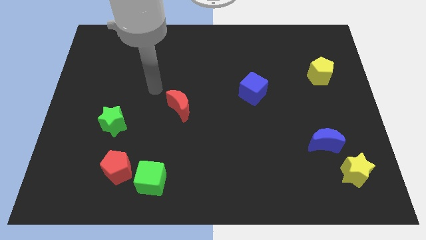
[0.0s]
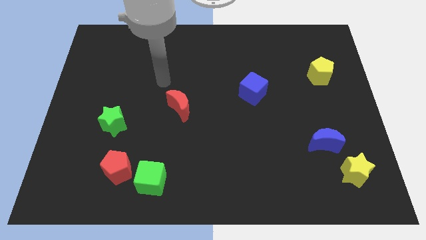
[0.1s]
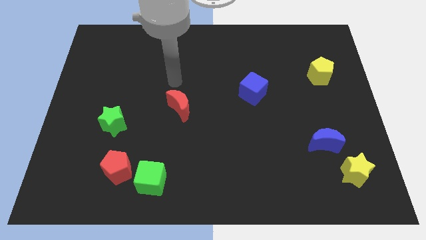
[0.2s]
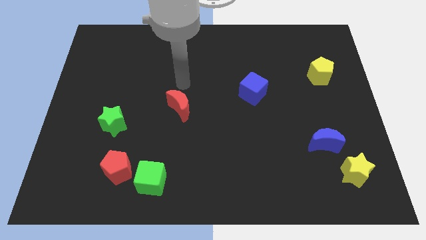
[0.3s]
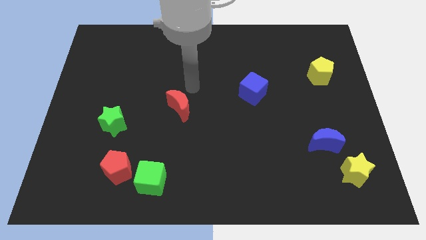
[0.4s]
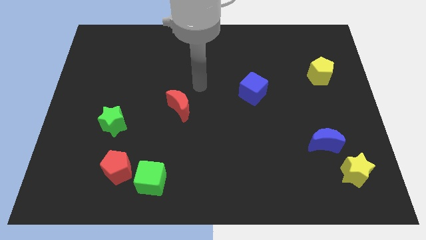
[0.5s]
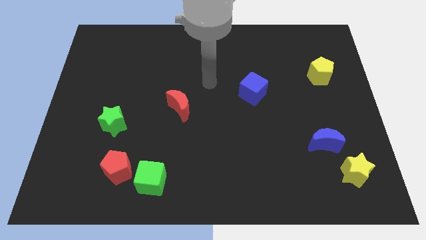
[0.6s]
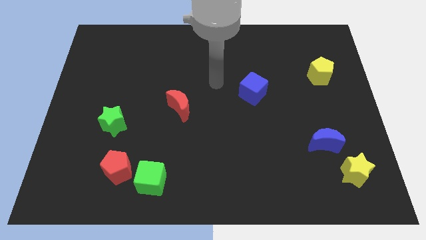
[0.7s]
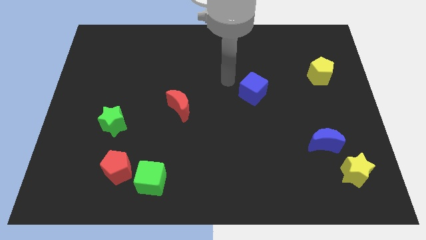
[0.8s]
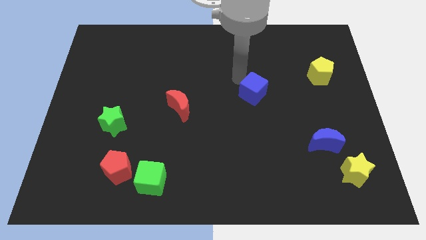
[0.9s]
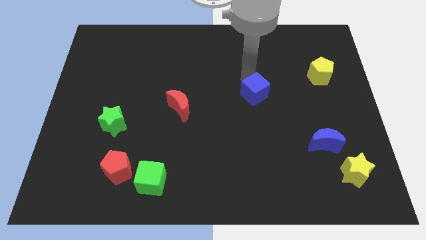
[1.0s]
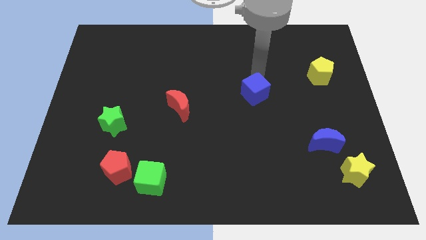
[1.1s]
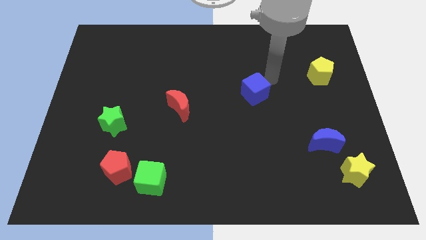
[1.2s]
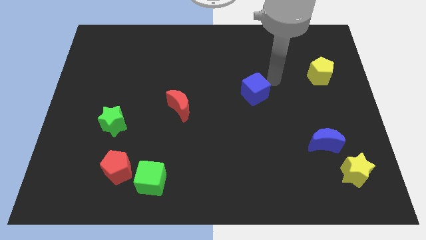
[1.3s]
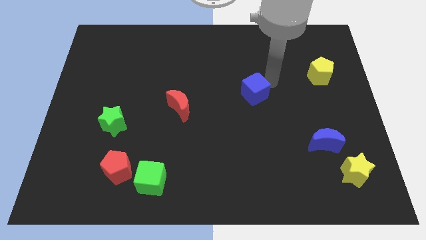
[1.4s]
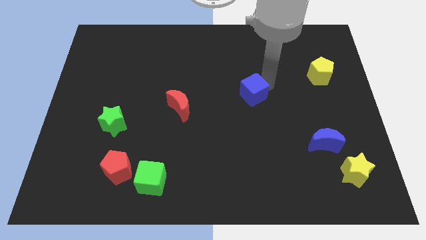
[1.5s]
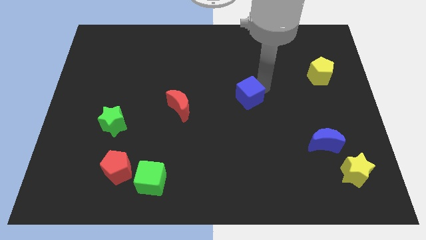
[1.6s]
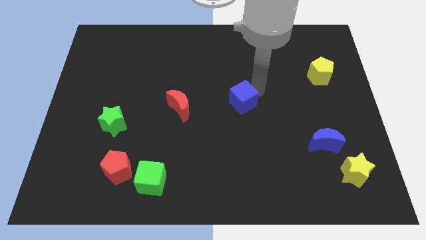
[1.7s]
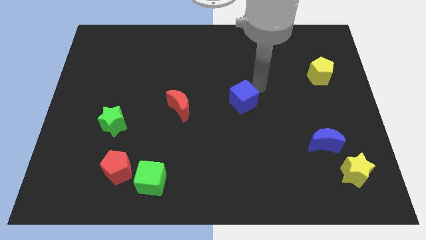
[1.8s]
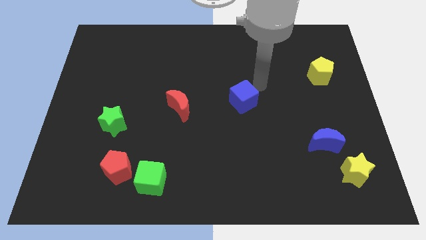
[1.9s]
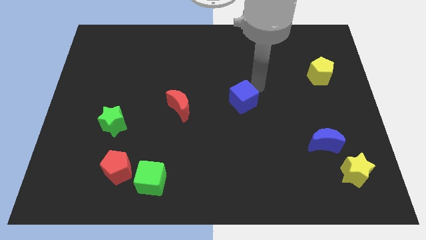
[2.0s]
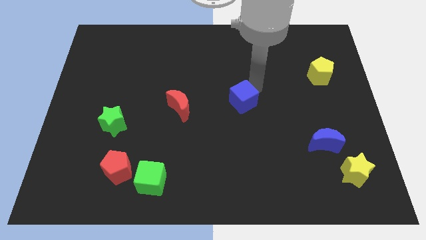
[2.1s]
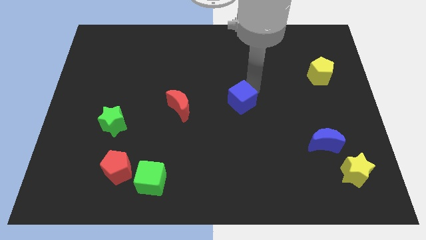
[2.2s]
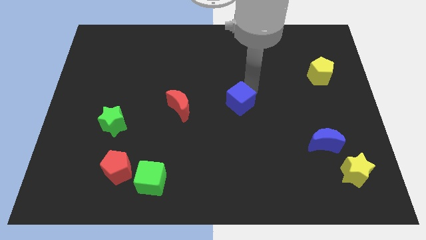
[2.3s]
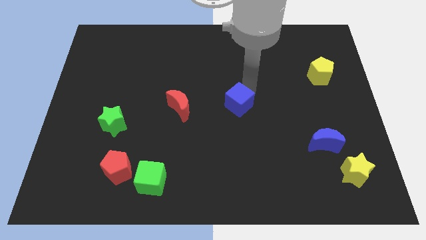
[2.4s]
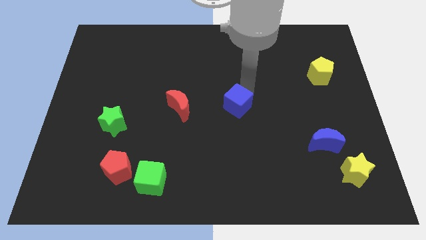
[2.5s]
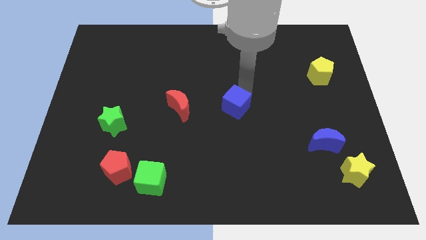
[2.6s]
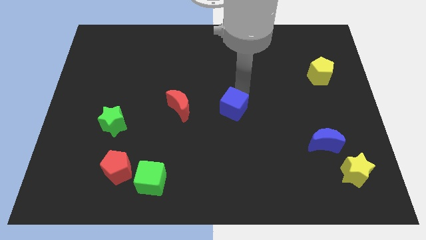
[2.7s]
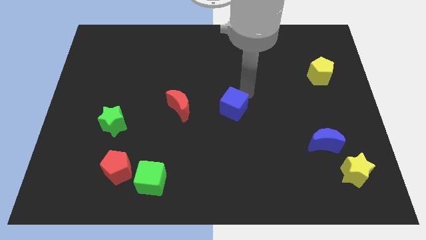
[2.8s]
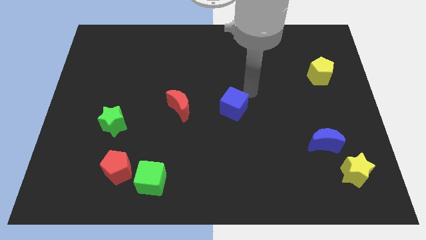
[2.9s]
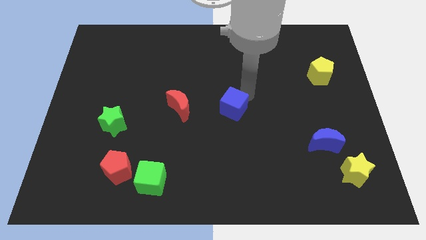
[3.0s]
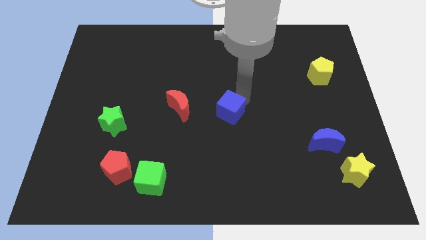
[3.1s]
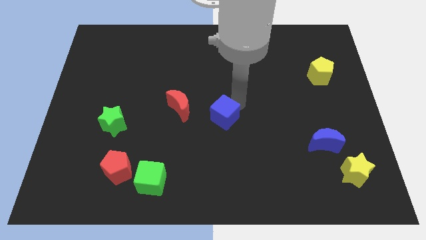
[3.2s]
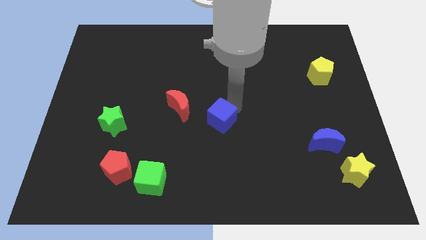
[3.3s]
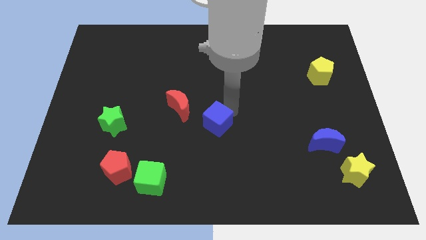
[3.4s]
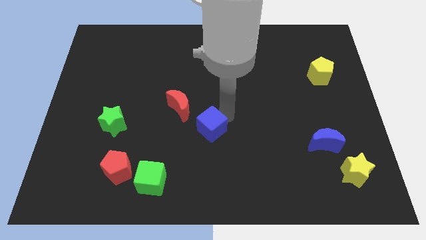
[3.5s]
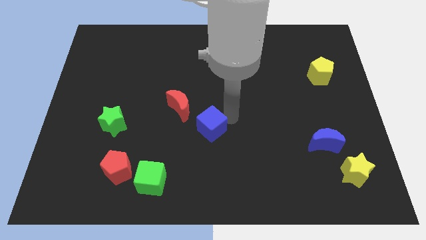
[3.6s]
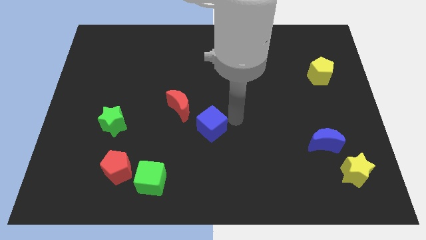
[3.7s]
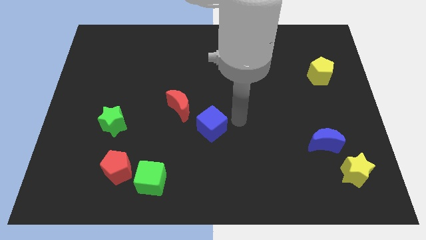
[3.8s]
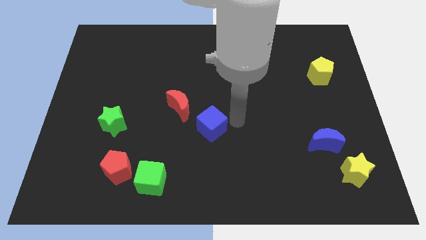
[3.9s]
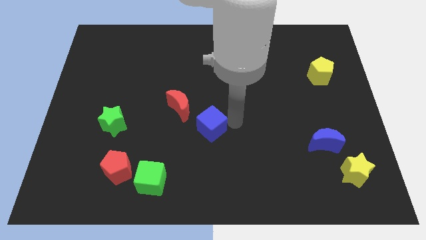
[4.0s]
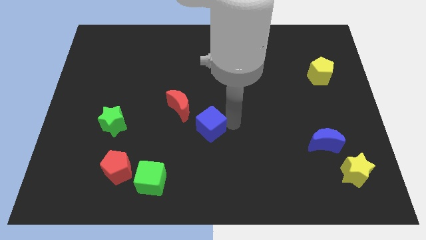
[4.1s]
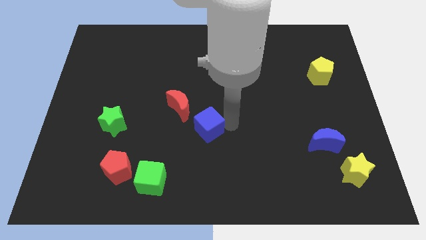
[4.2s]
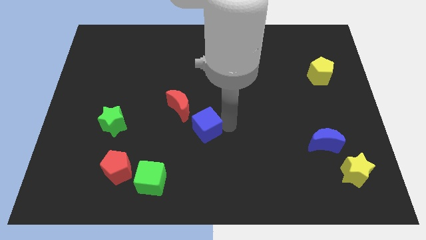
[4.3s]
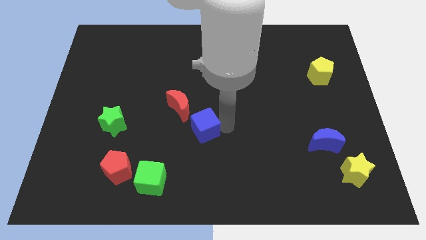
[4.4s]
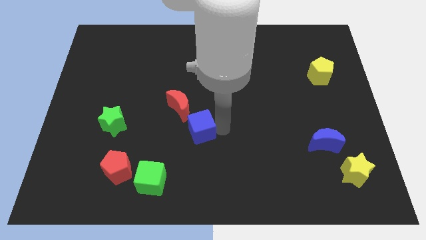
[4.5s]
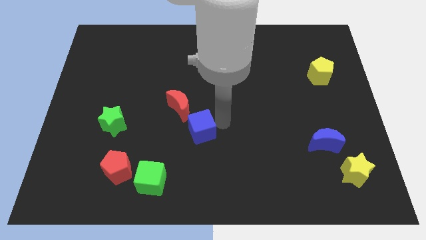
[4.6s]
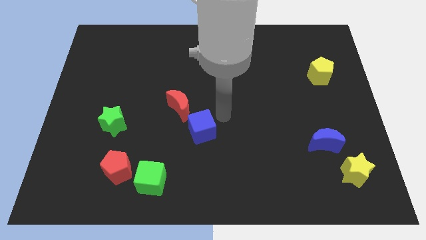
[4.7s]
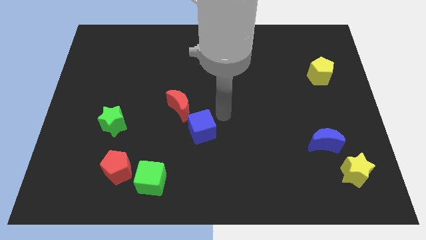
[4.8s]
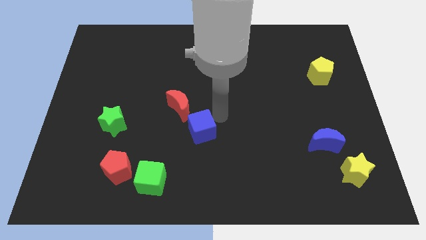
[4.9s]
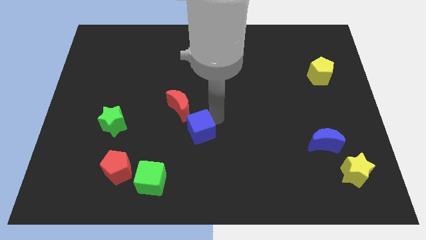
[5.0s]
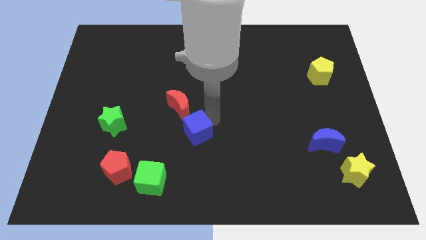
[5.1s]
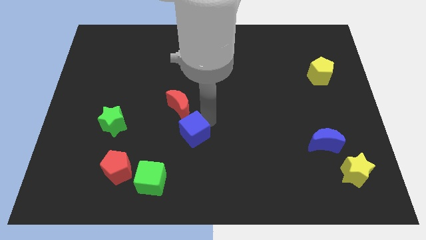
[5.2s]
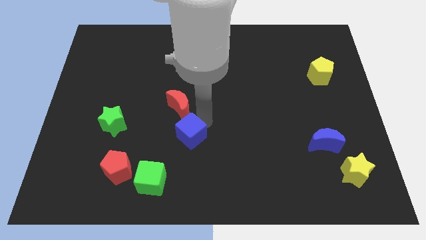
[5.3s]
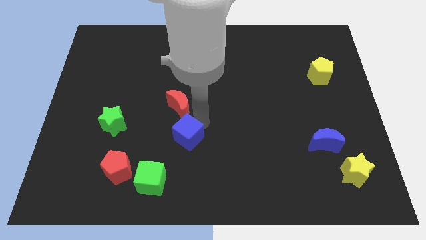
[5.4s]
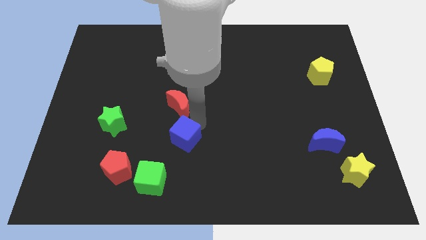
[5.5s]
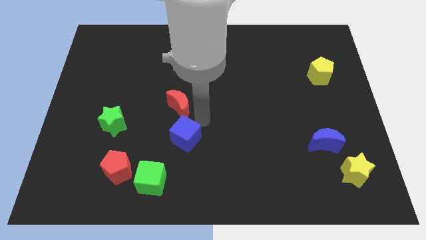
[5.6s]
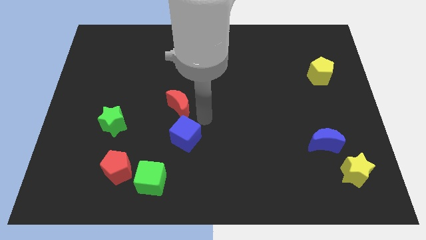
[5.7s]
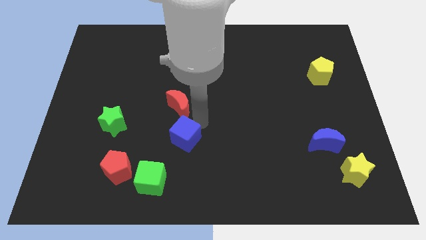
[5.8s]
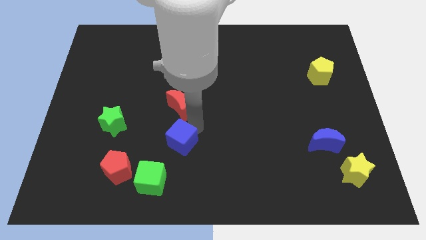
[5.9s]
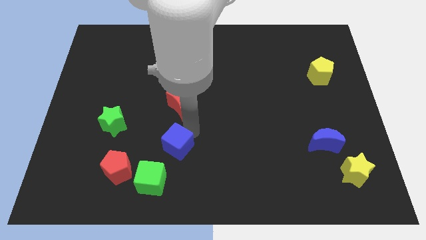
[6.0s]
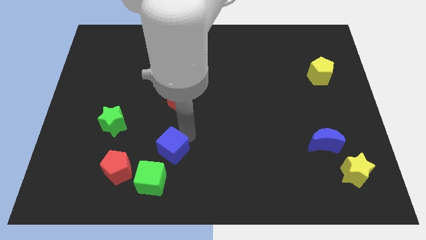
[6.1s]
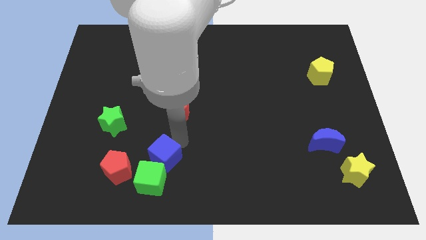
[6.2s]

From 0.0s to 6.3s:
slide the blue cube towards the green cube

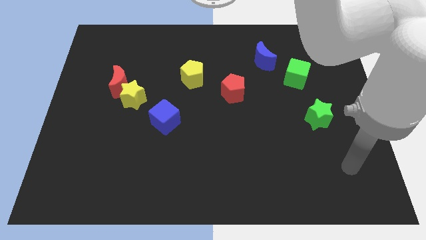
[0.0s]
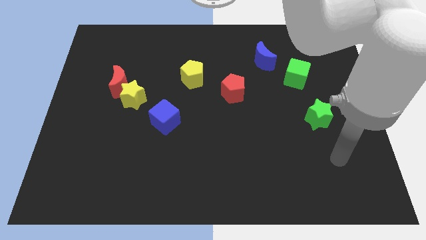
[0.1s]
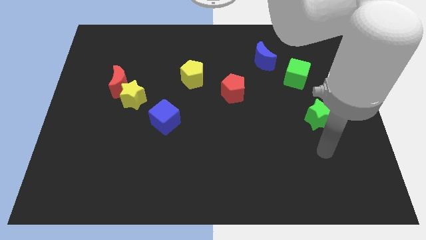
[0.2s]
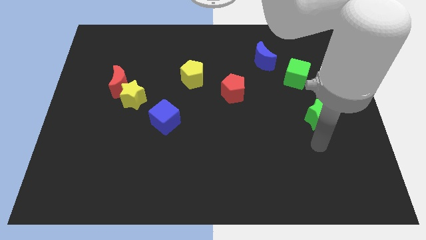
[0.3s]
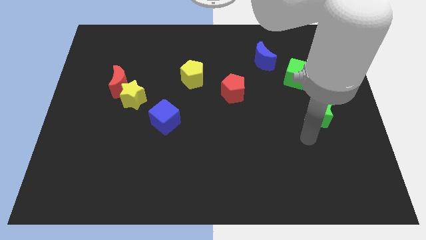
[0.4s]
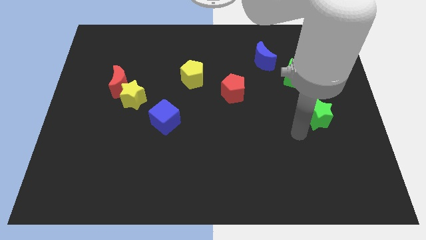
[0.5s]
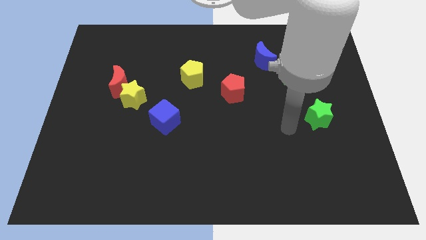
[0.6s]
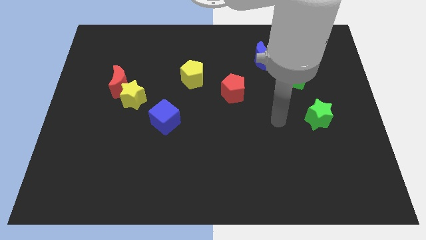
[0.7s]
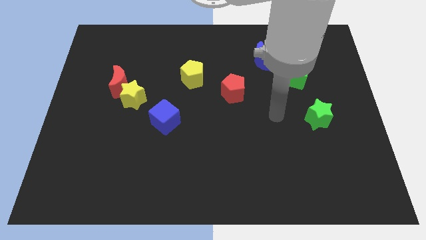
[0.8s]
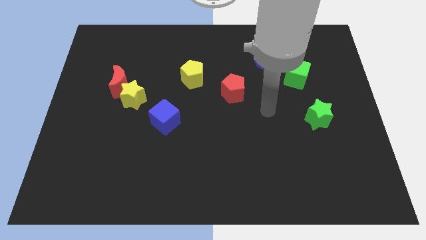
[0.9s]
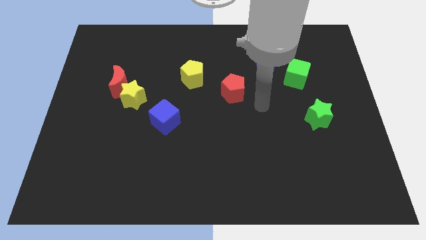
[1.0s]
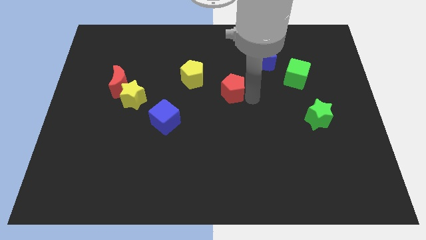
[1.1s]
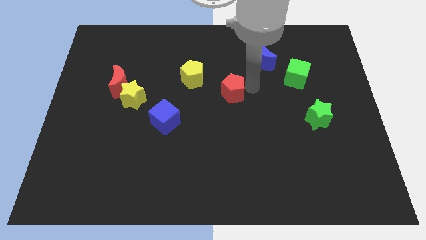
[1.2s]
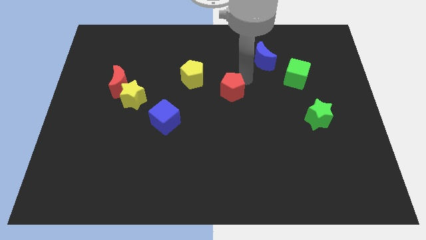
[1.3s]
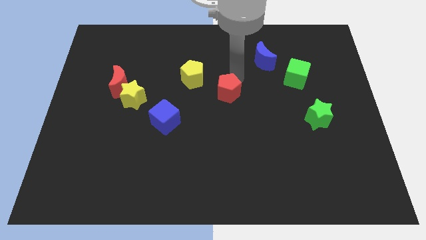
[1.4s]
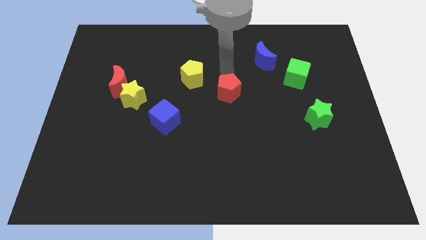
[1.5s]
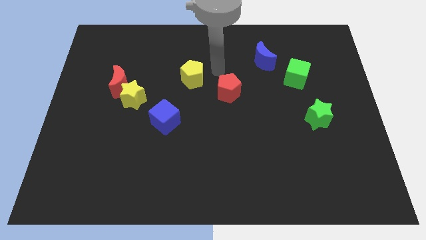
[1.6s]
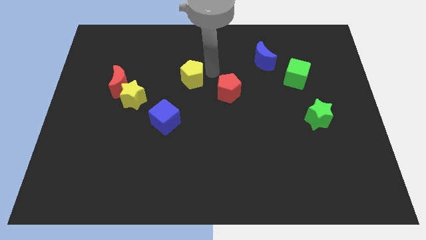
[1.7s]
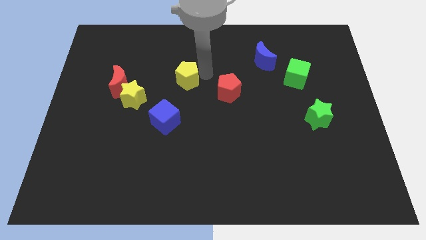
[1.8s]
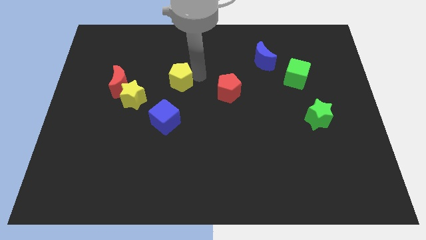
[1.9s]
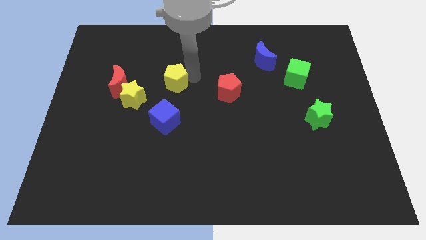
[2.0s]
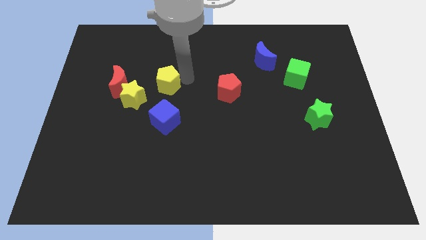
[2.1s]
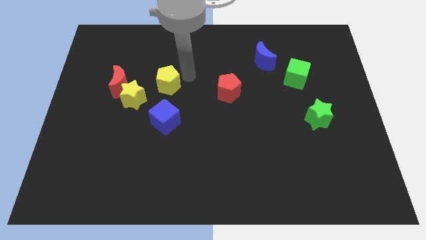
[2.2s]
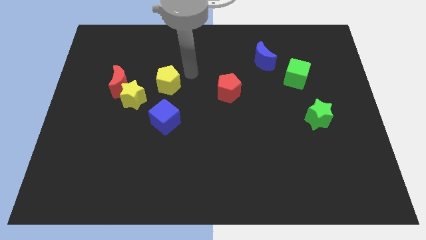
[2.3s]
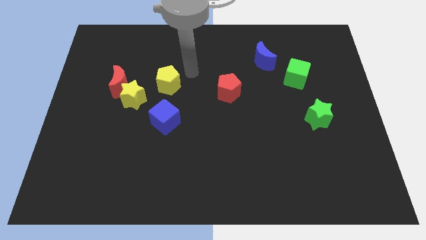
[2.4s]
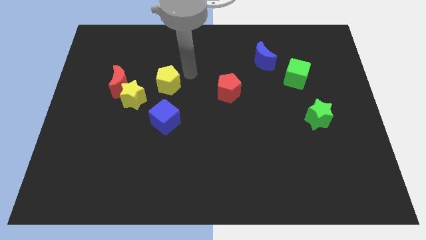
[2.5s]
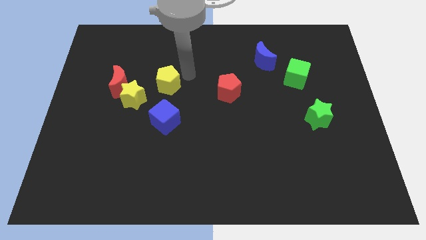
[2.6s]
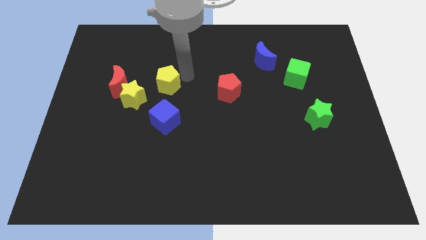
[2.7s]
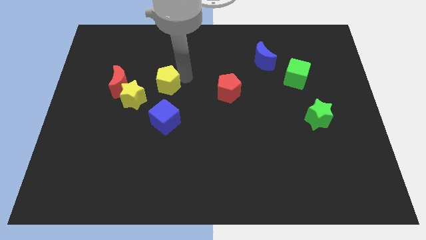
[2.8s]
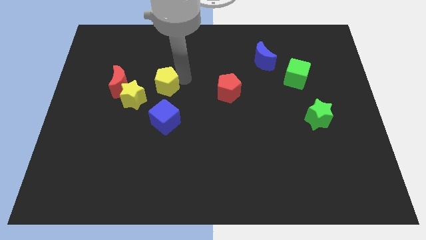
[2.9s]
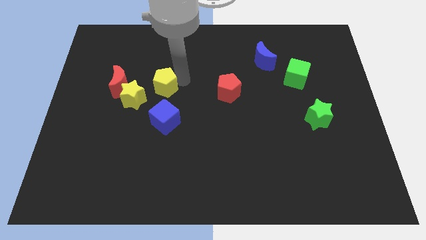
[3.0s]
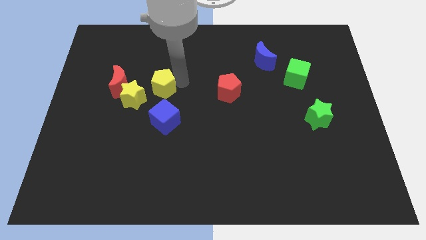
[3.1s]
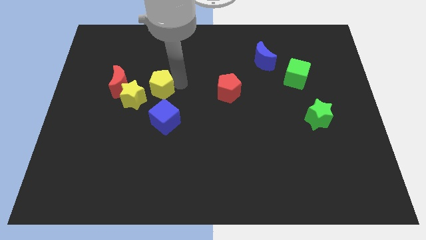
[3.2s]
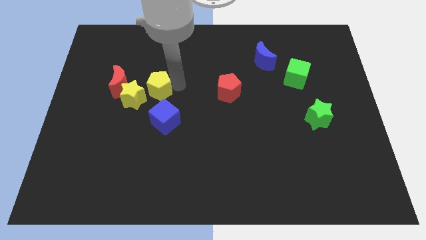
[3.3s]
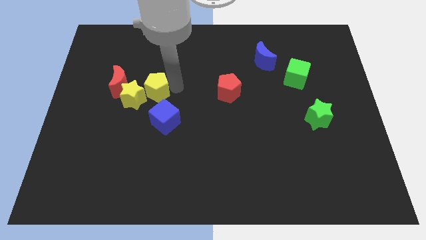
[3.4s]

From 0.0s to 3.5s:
push the yellow pentagon towards the yellow star
